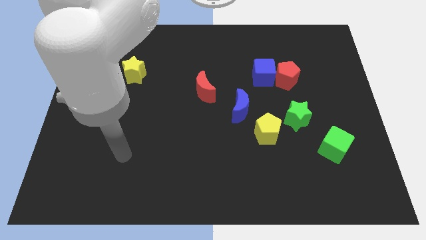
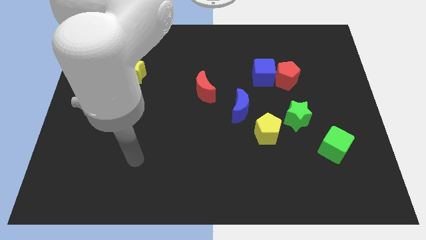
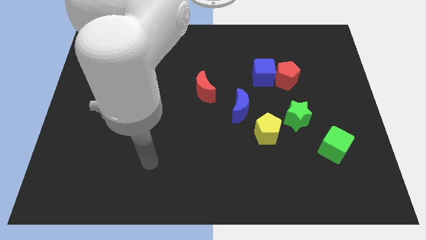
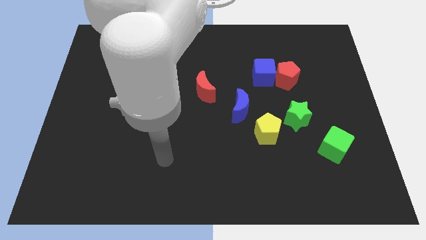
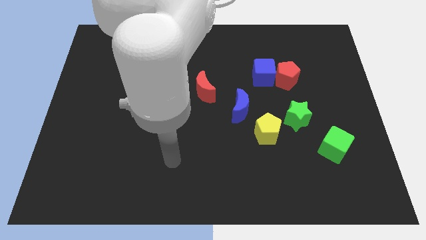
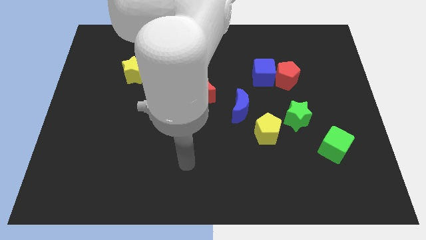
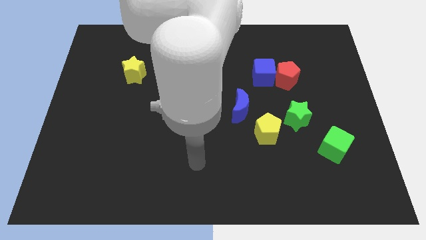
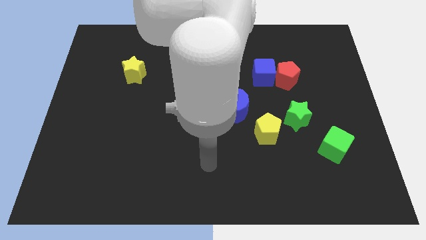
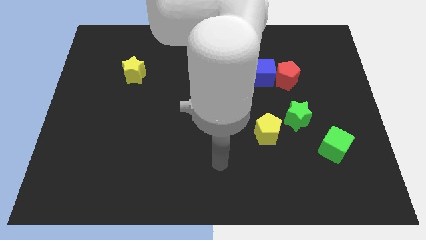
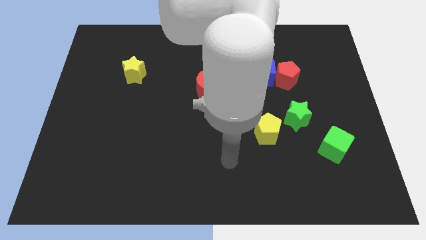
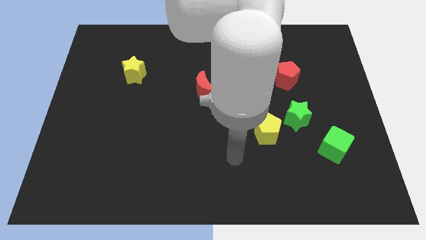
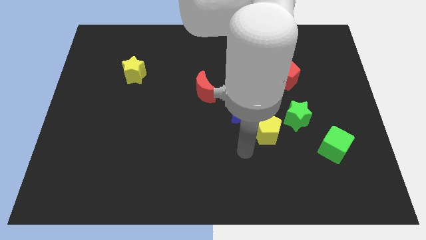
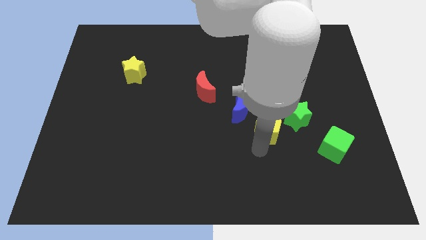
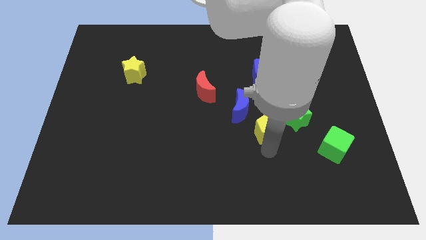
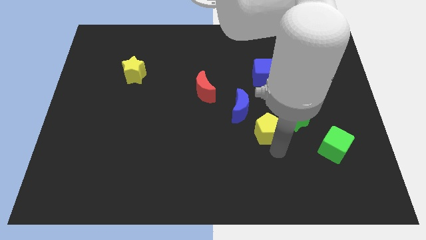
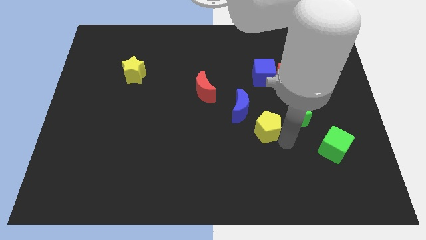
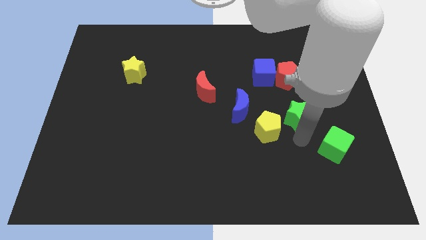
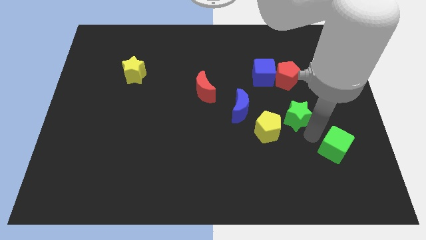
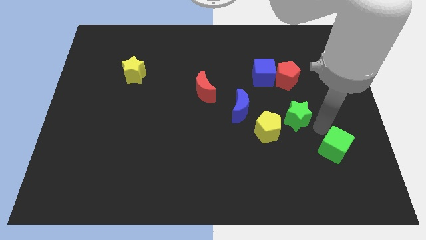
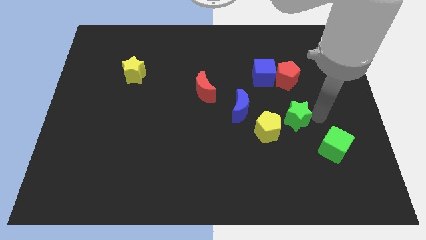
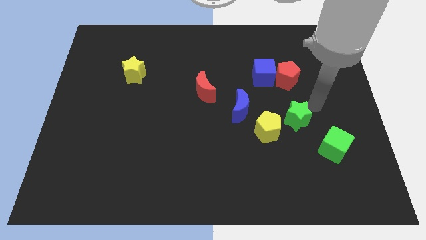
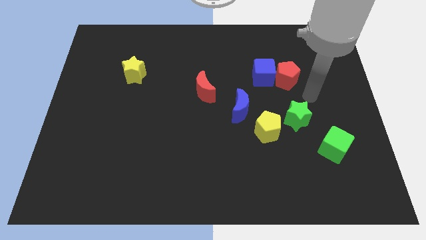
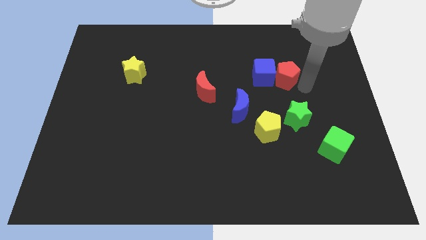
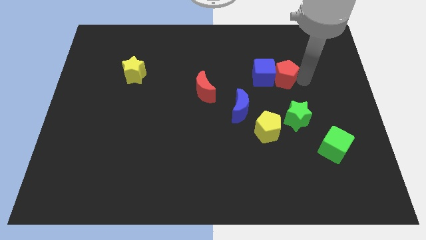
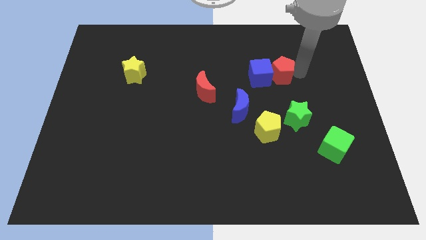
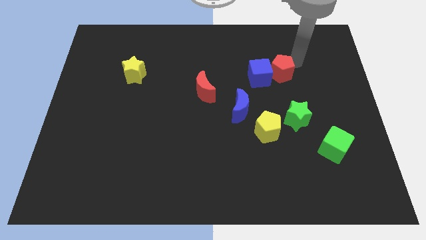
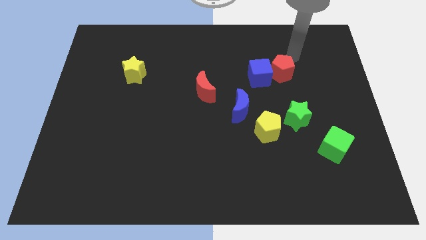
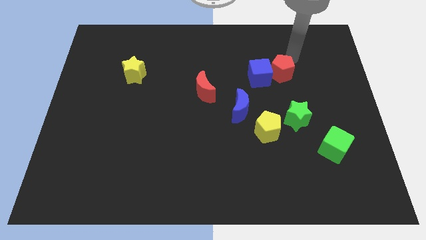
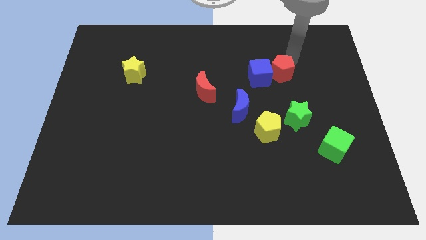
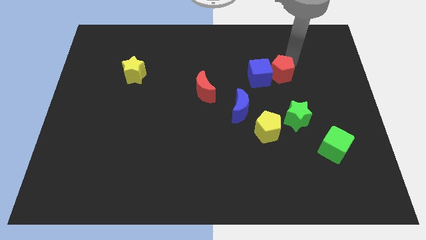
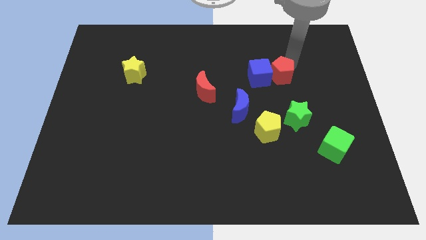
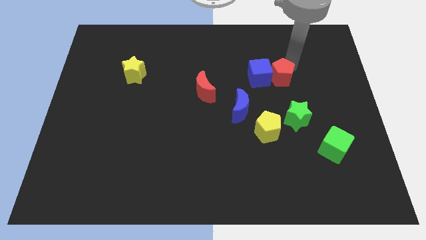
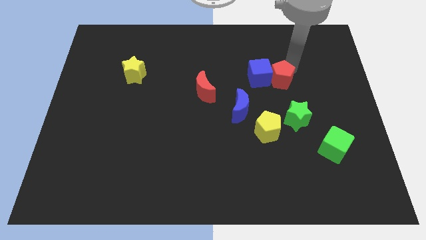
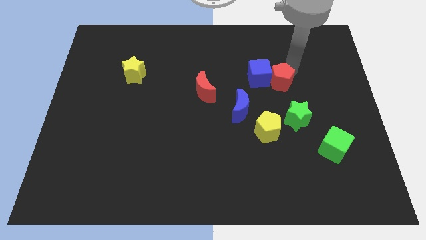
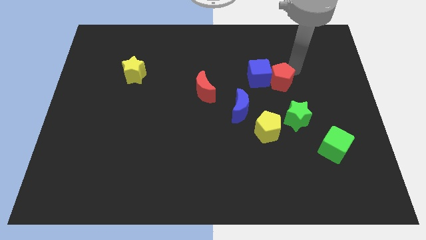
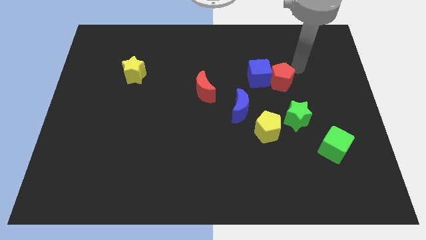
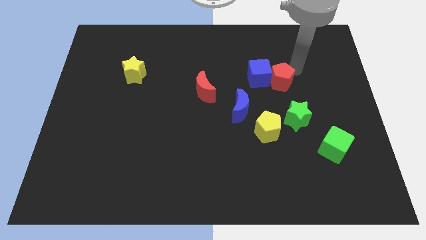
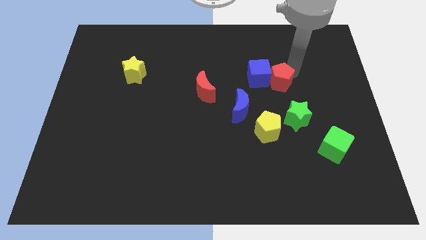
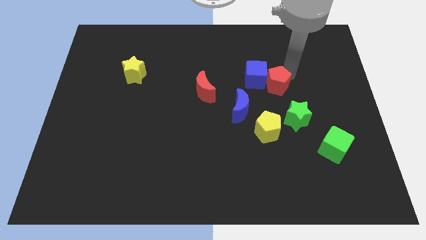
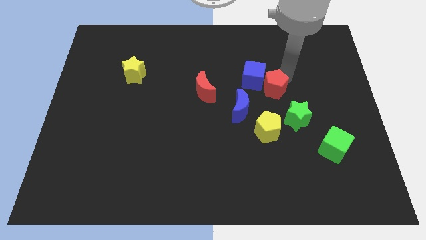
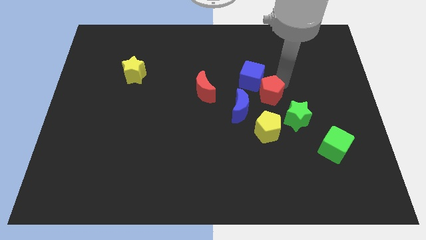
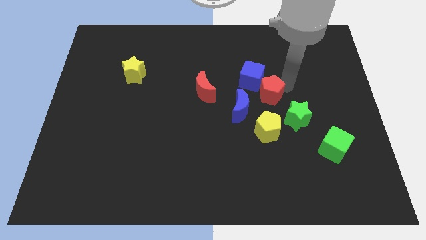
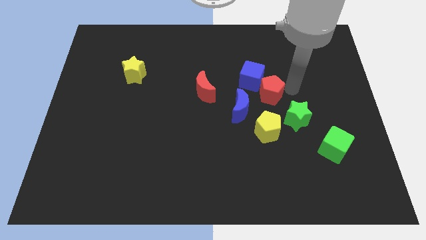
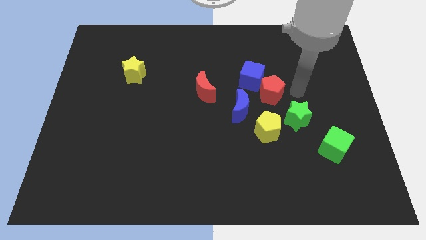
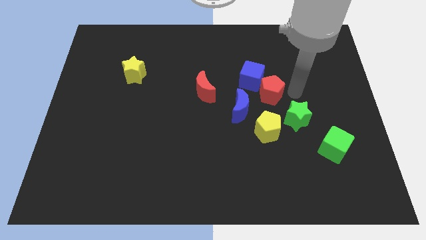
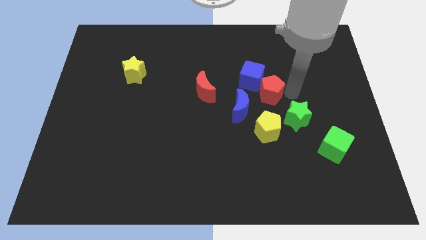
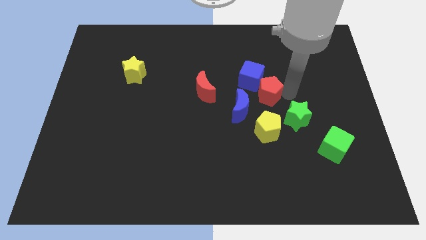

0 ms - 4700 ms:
slightly slide the red pentagon down and then left

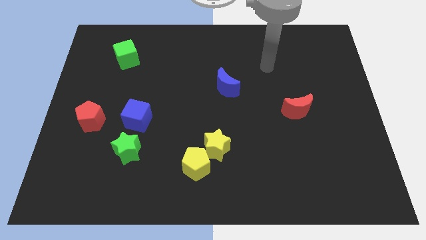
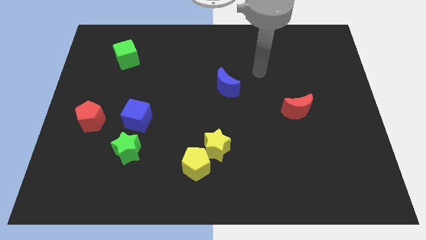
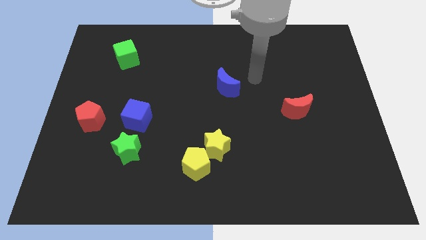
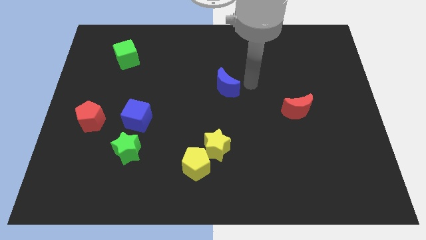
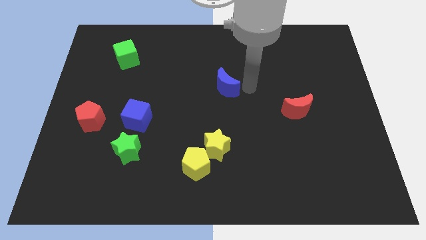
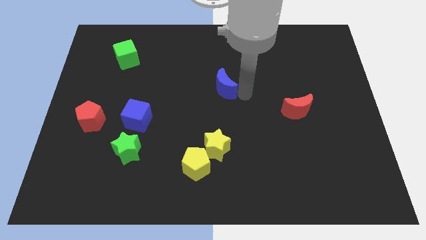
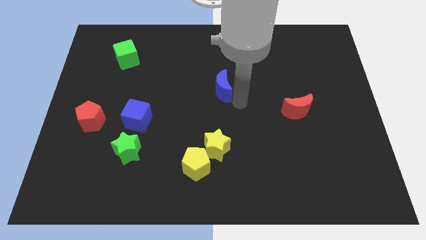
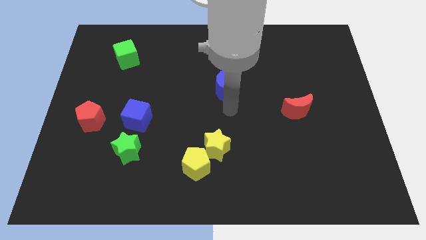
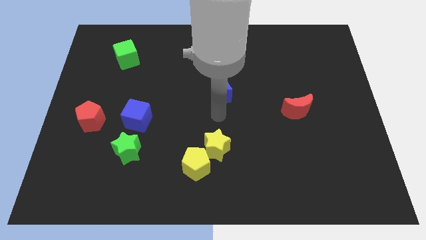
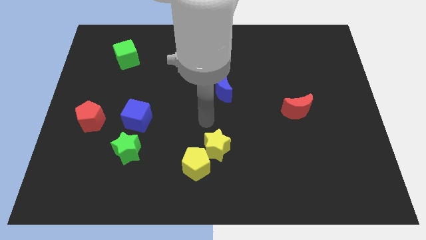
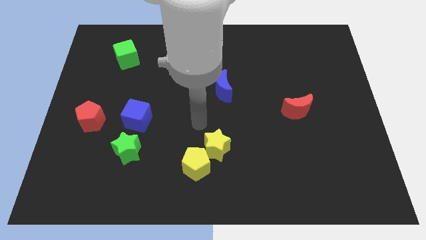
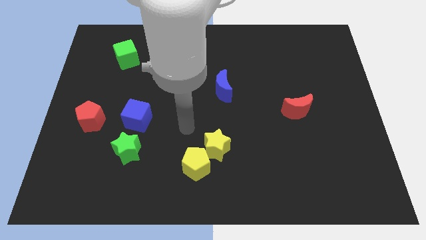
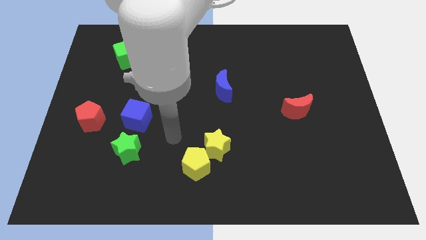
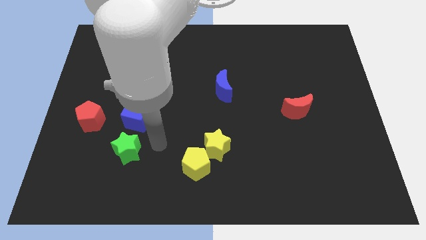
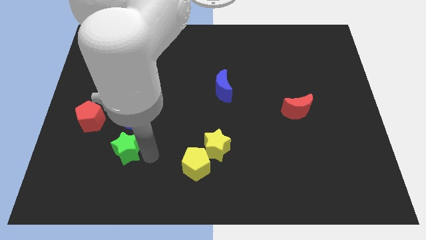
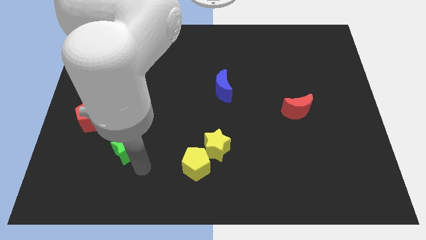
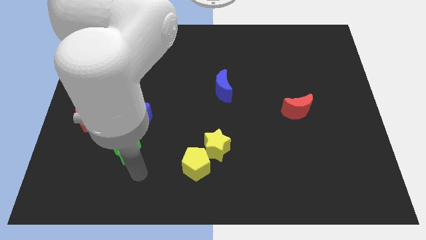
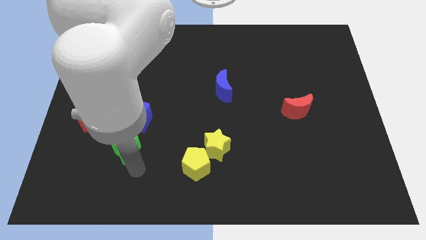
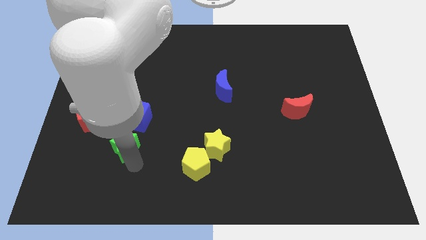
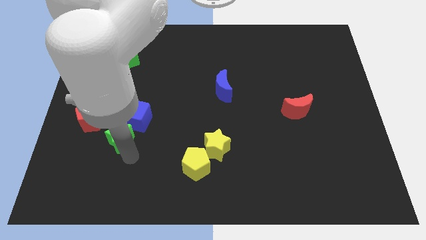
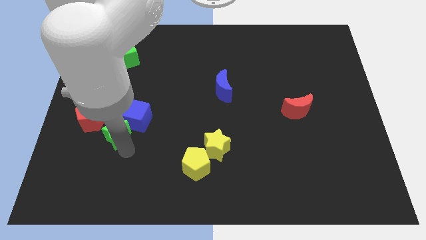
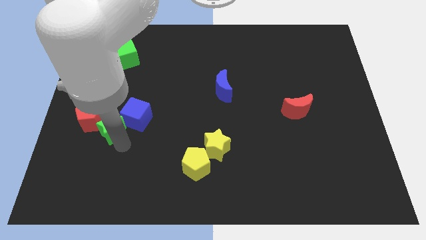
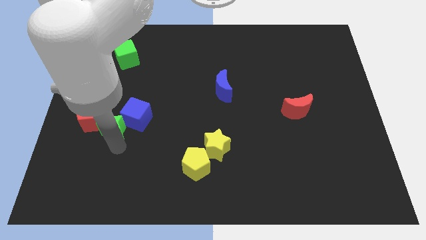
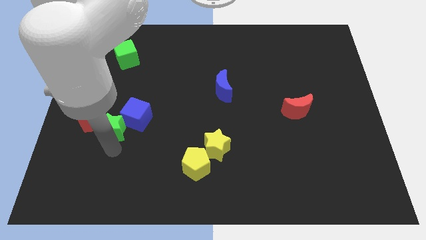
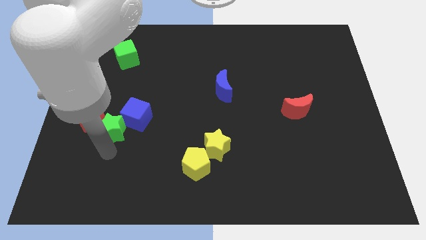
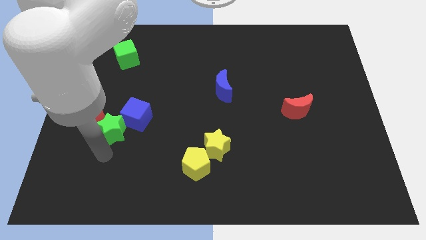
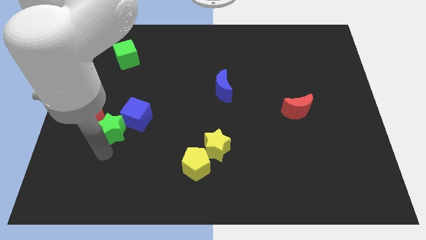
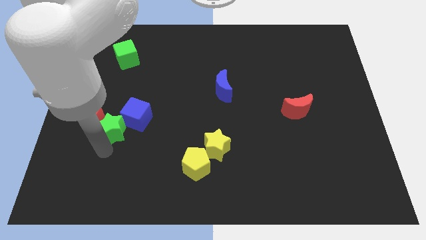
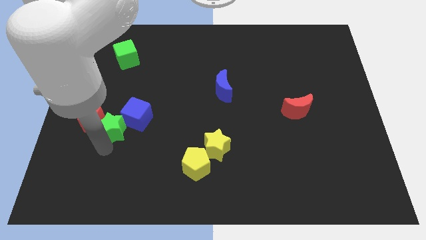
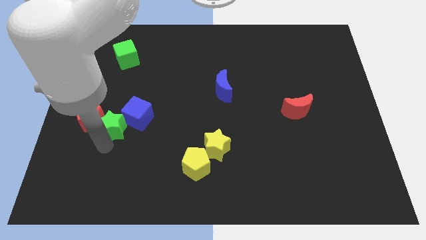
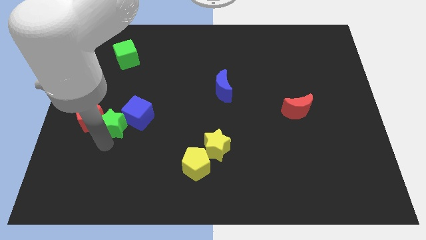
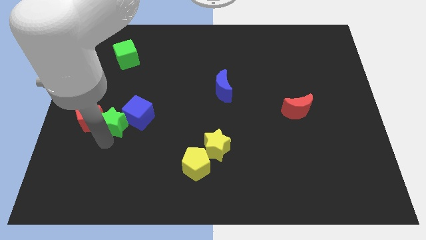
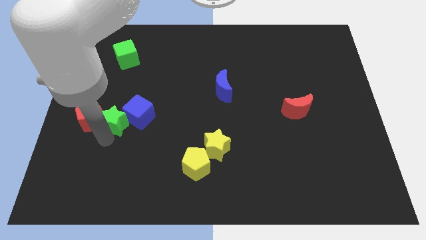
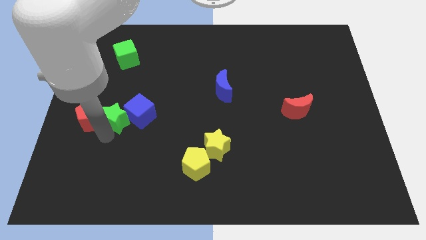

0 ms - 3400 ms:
slightly slide the green star upwards
